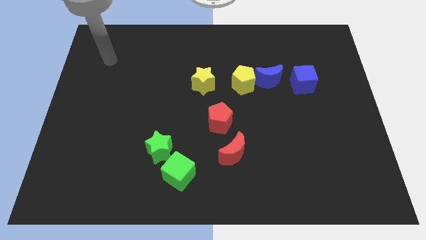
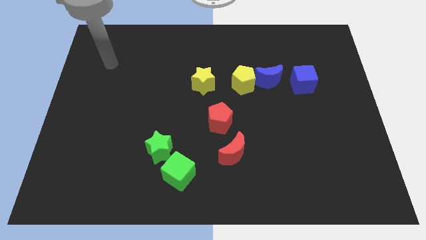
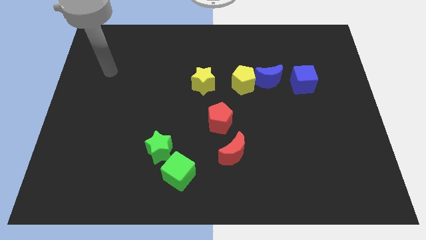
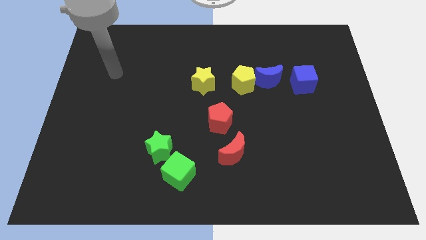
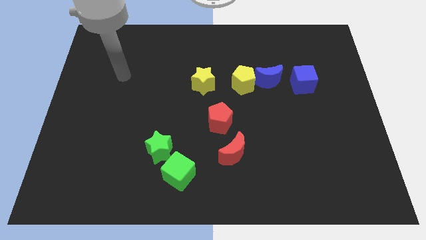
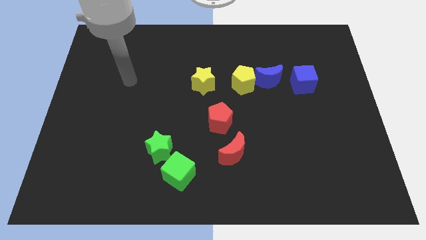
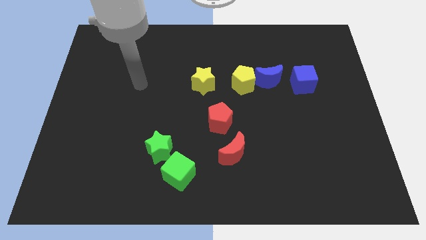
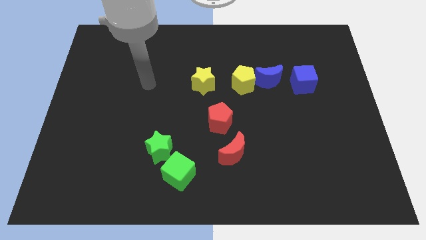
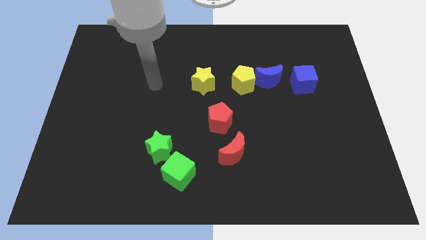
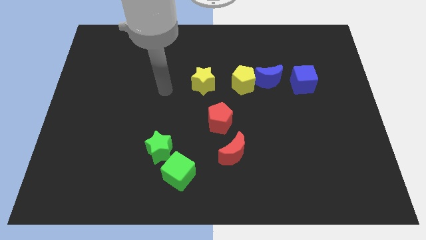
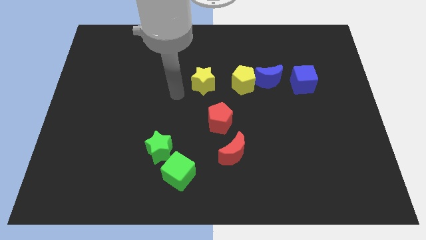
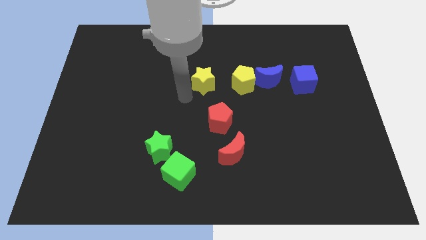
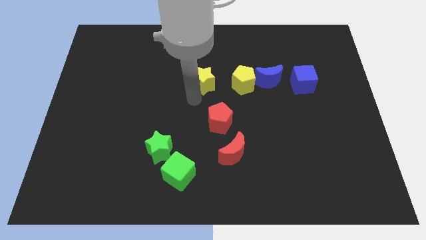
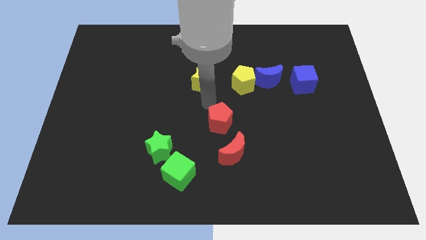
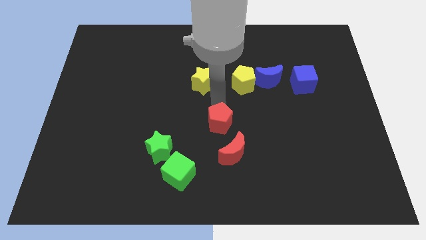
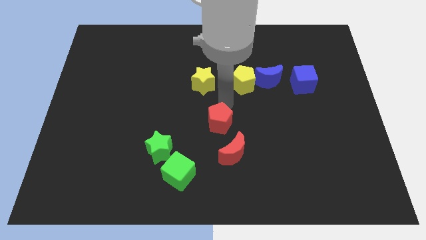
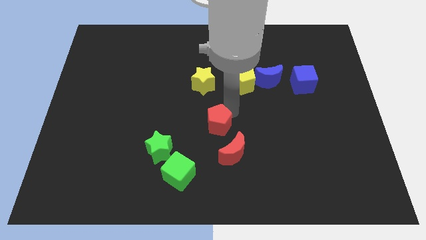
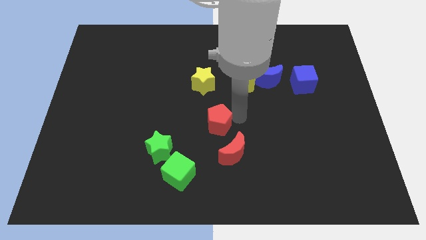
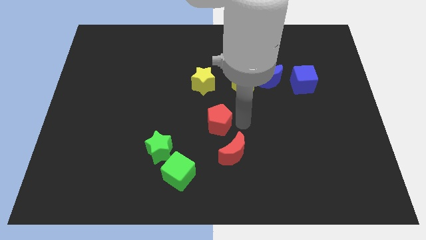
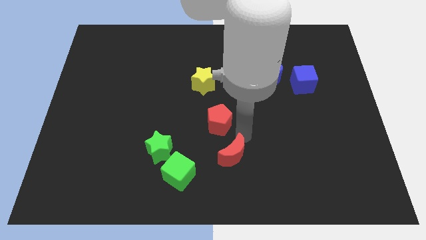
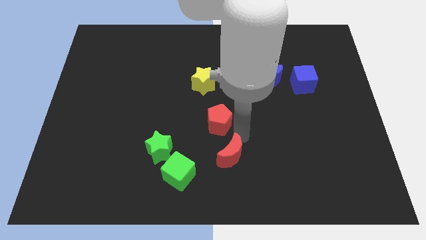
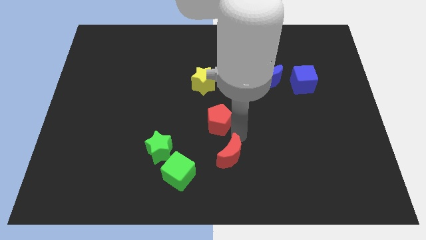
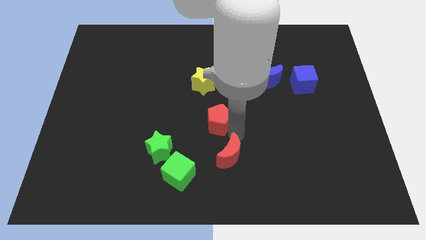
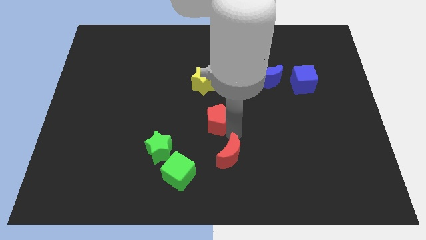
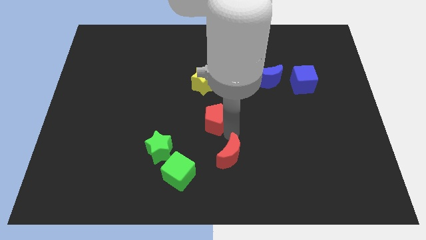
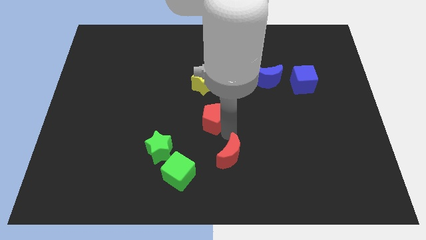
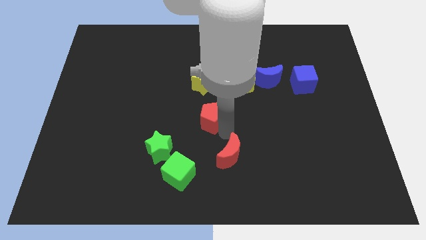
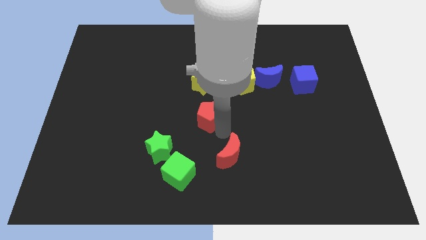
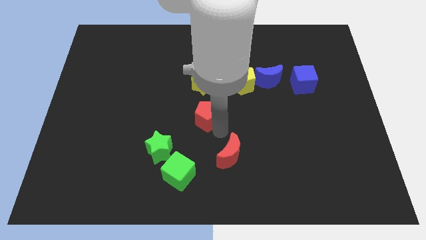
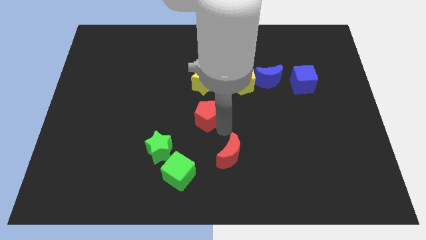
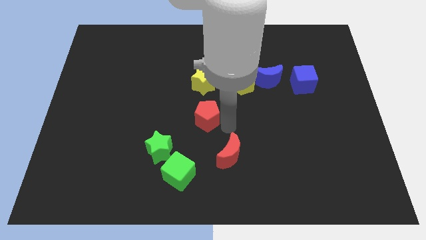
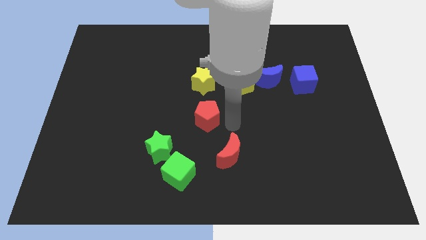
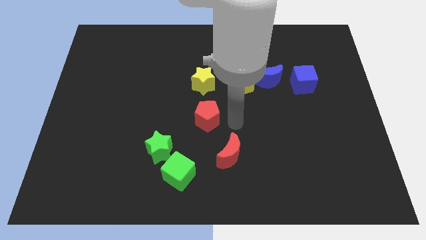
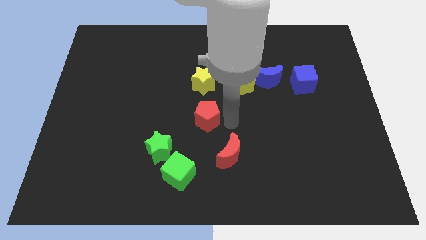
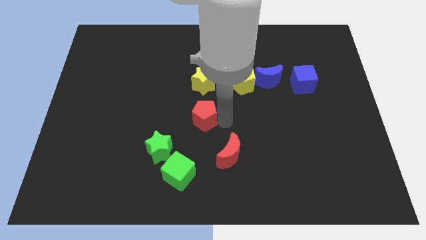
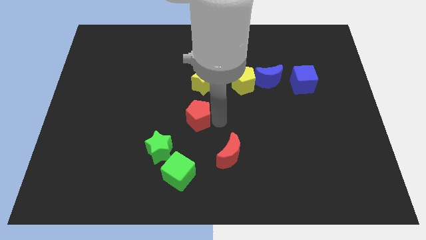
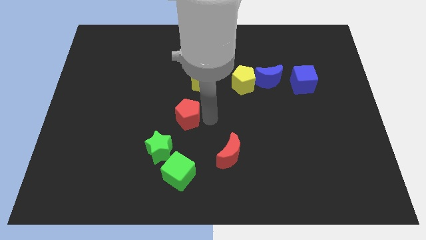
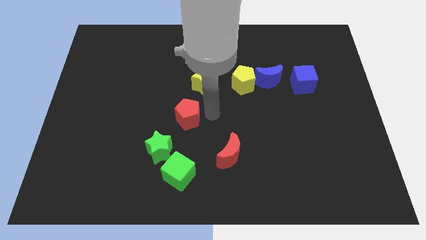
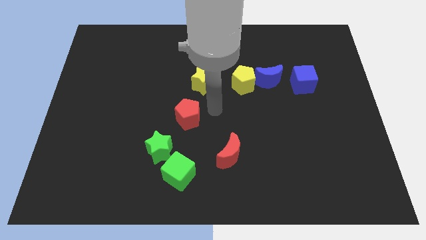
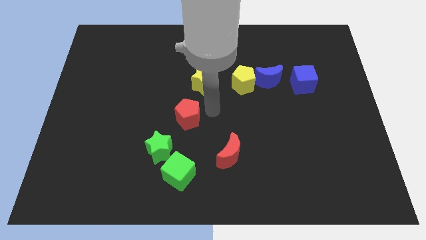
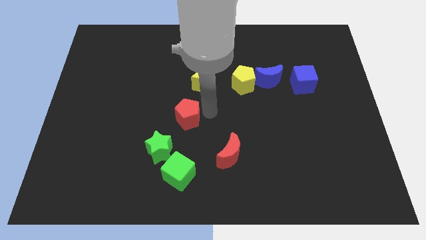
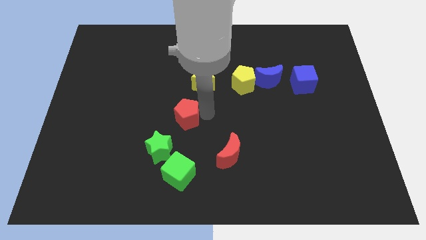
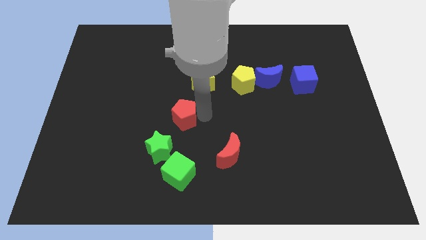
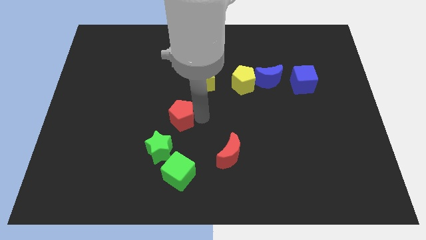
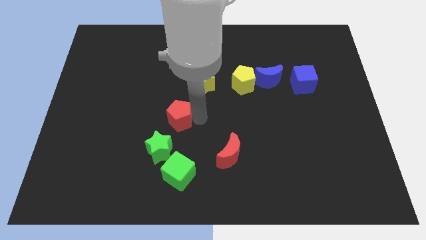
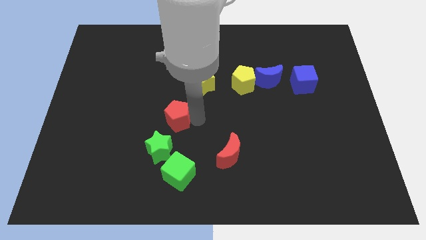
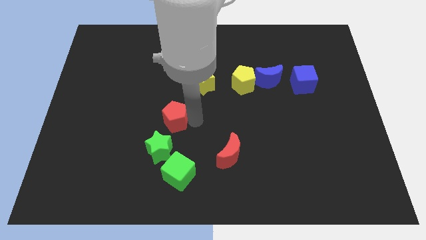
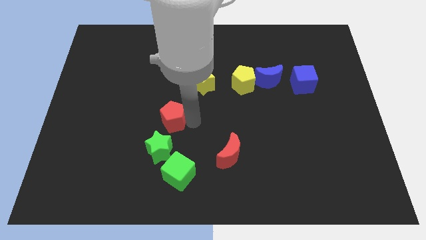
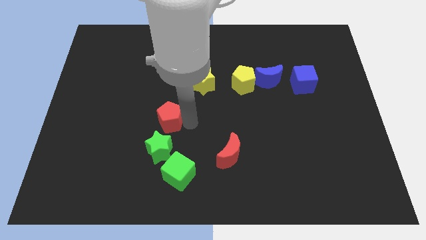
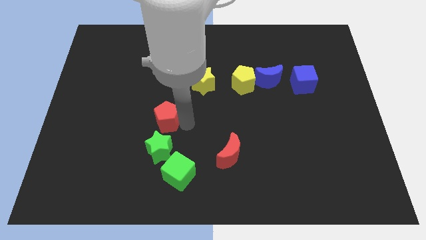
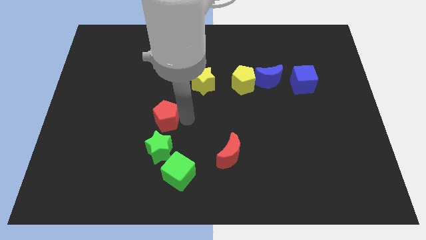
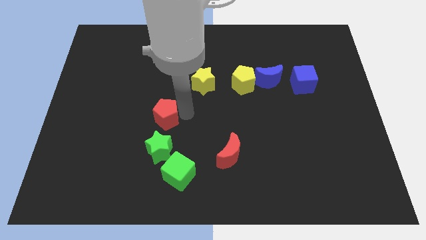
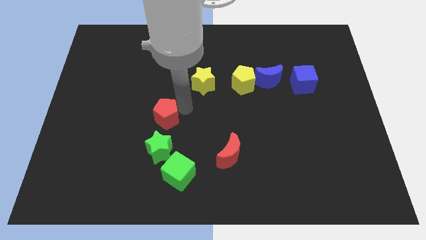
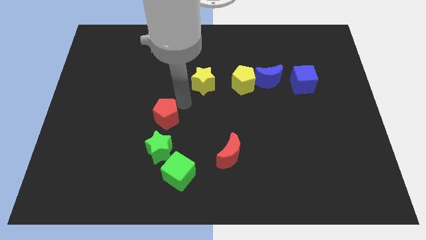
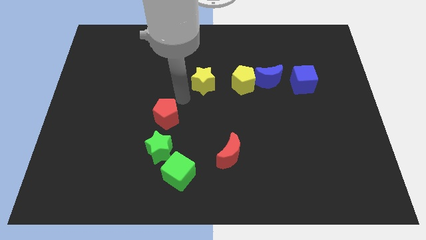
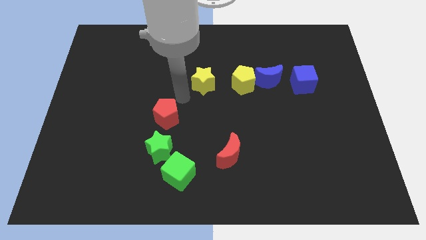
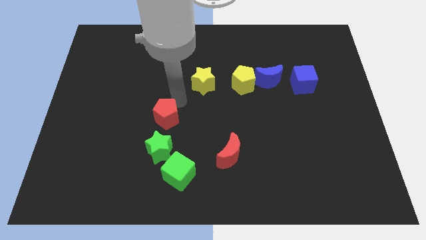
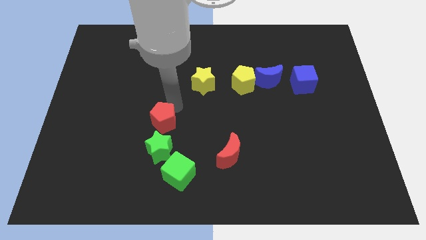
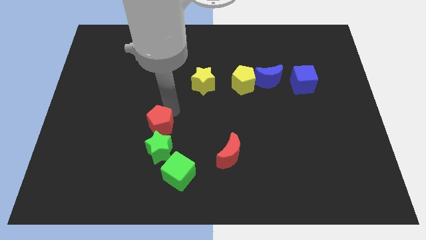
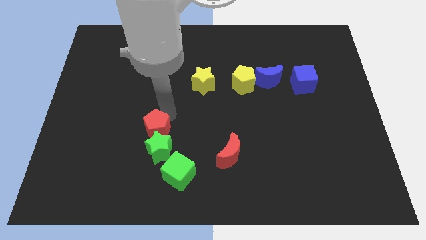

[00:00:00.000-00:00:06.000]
slide the red pentagon slightly diagonally downwards and left

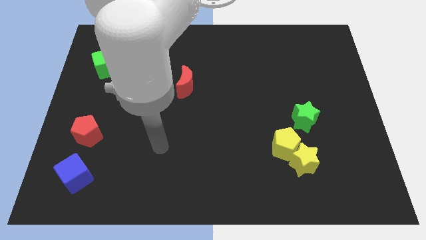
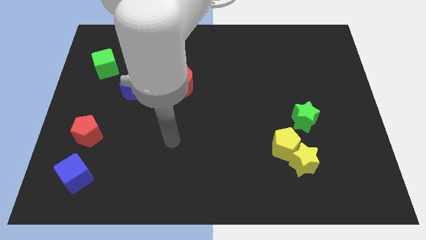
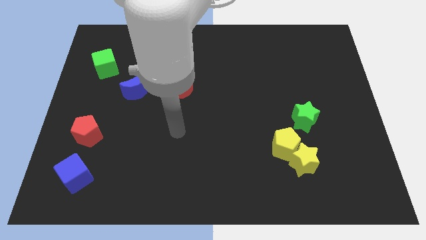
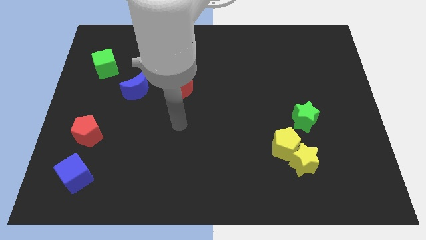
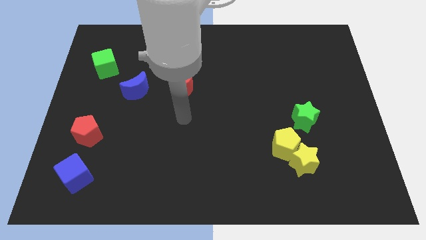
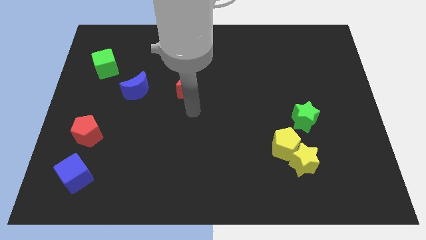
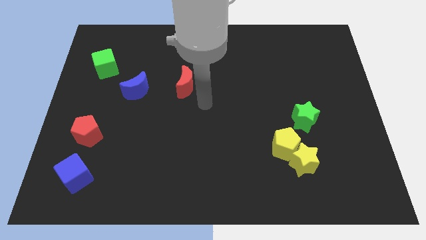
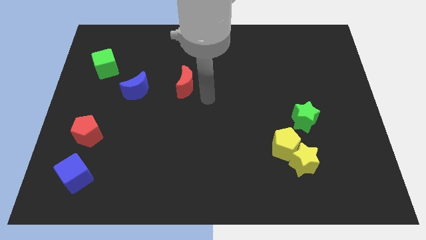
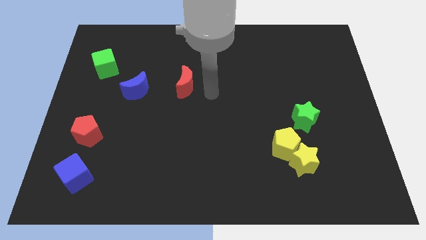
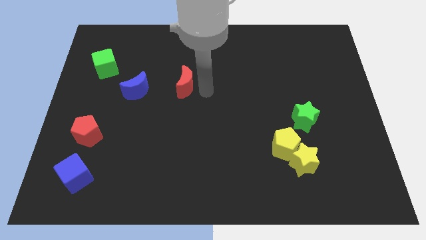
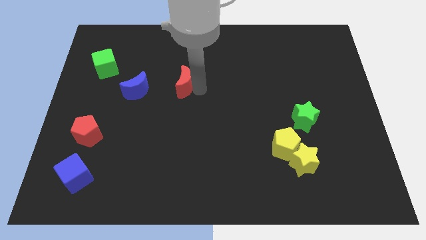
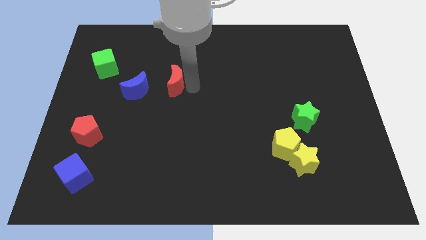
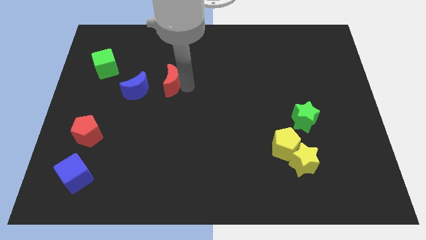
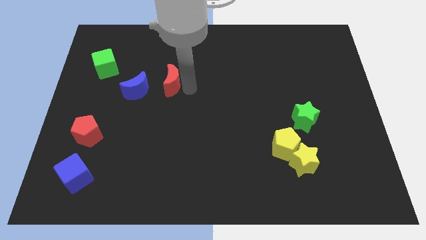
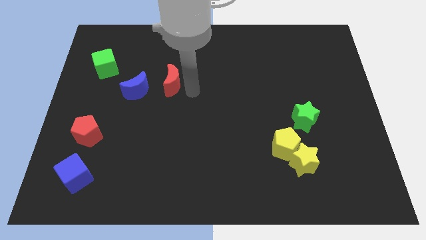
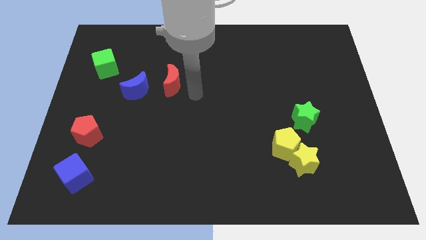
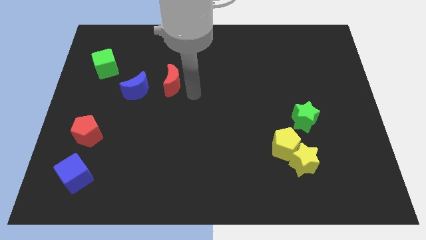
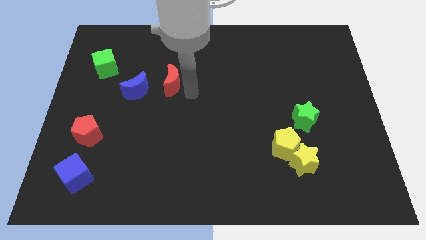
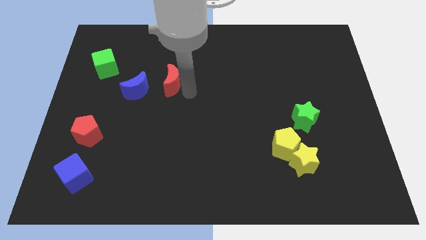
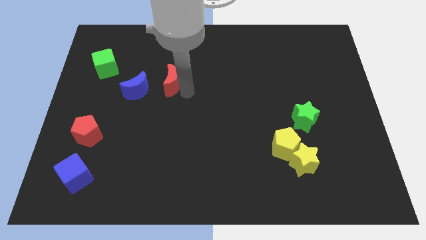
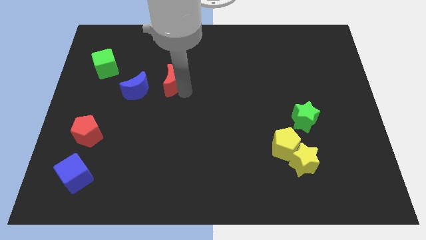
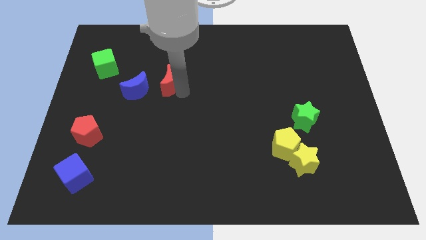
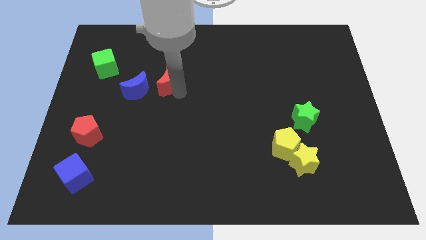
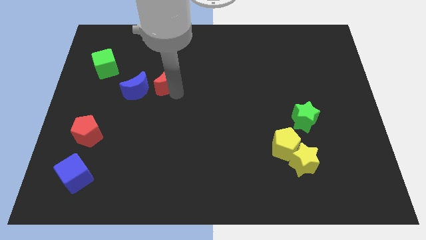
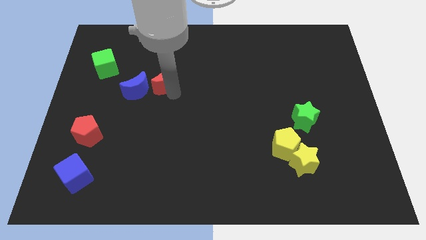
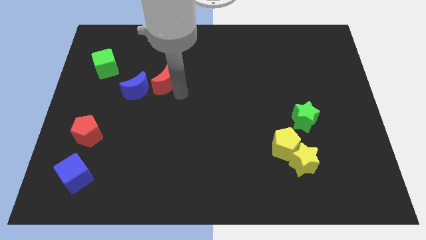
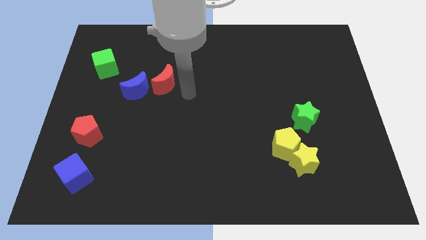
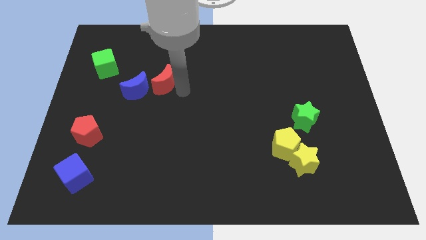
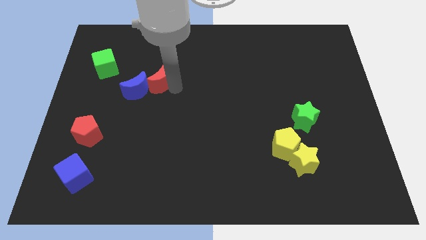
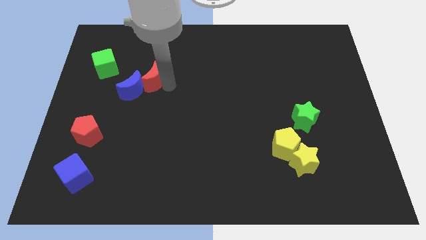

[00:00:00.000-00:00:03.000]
push the red moon to the left somewhat
